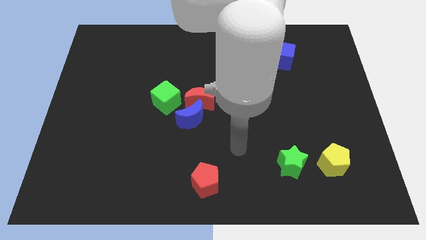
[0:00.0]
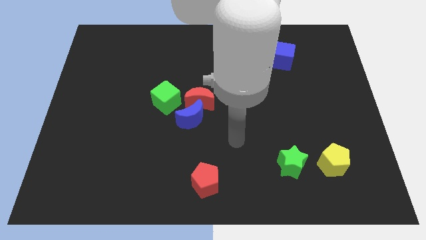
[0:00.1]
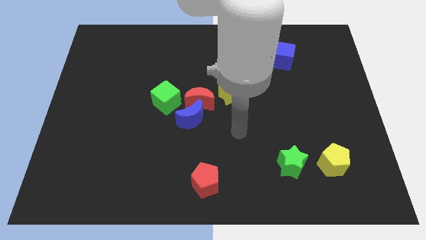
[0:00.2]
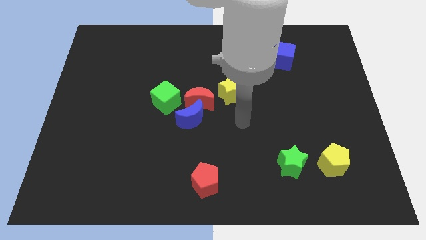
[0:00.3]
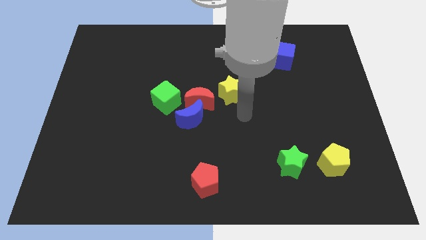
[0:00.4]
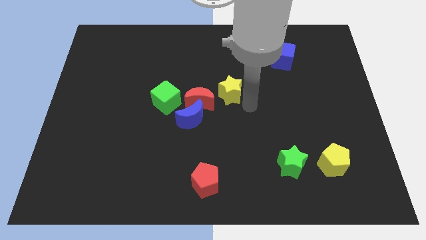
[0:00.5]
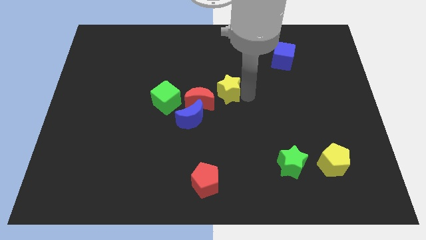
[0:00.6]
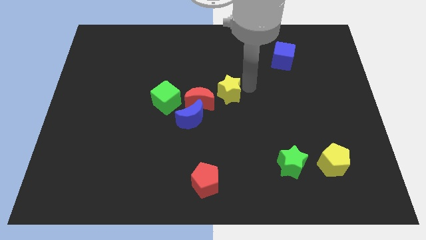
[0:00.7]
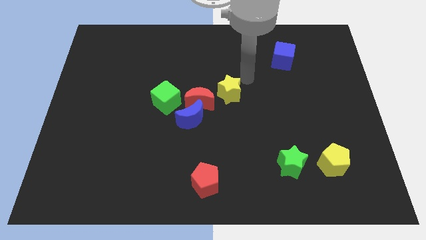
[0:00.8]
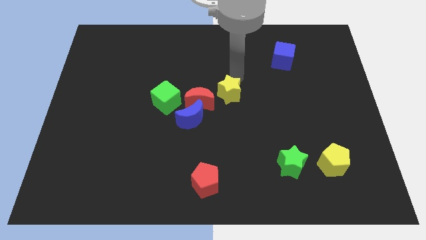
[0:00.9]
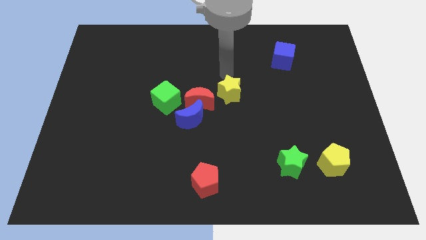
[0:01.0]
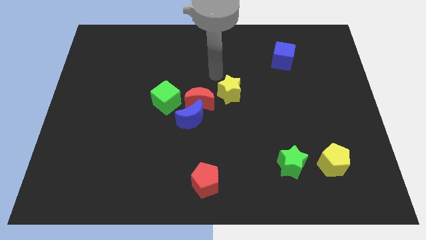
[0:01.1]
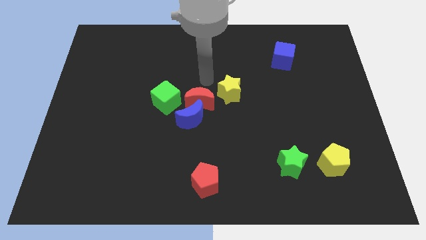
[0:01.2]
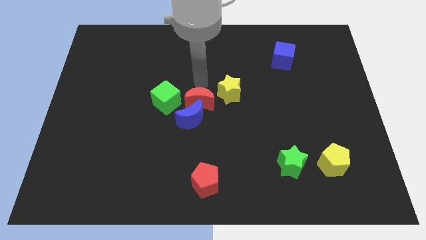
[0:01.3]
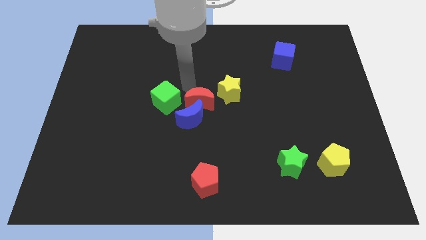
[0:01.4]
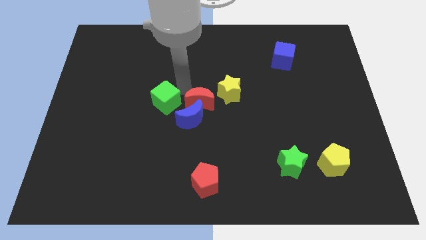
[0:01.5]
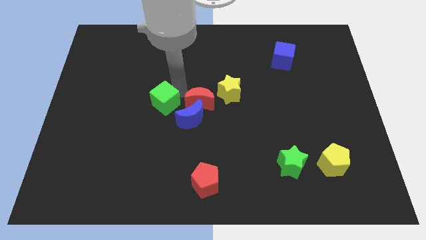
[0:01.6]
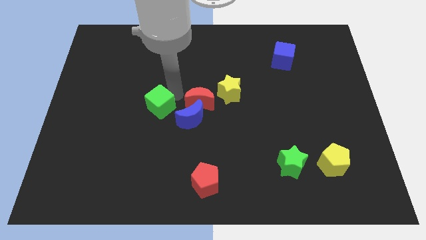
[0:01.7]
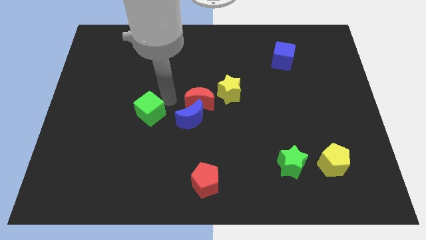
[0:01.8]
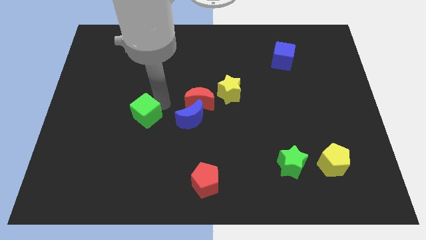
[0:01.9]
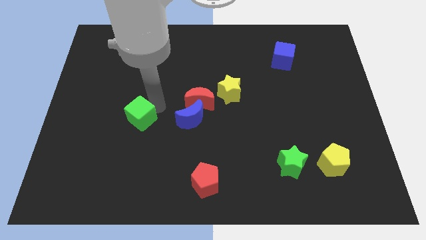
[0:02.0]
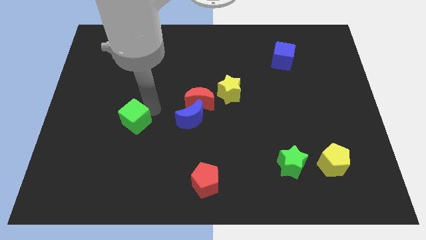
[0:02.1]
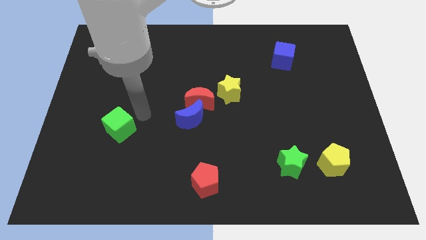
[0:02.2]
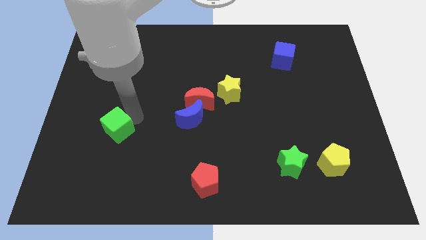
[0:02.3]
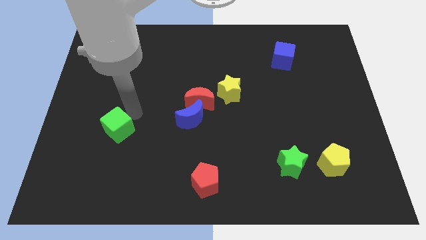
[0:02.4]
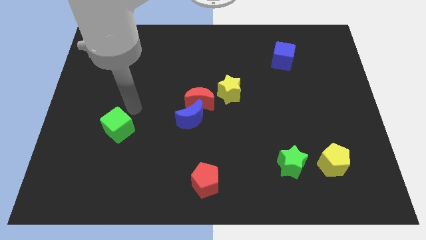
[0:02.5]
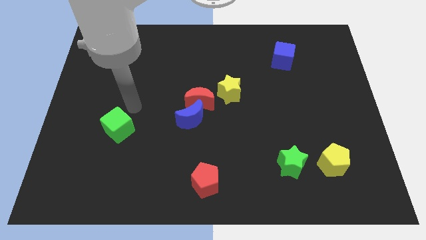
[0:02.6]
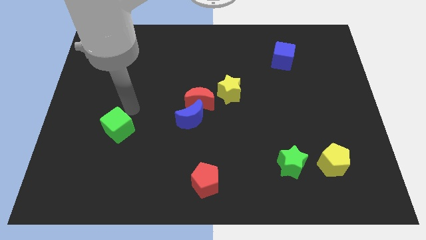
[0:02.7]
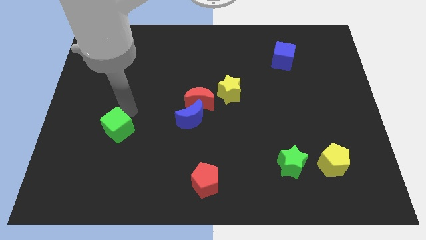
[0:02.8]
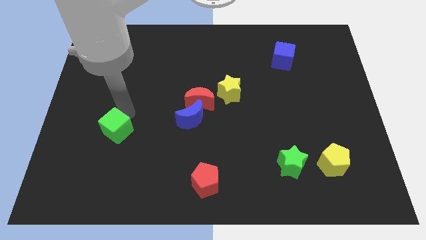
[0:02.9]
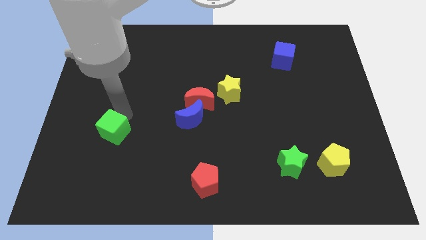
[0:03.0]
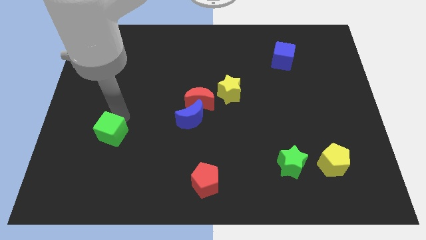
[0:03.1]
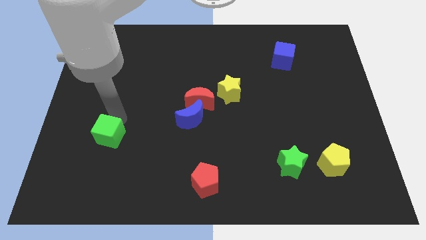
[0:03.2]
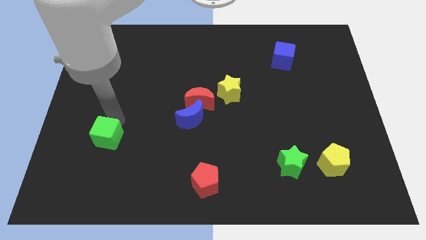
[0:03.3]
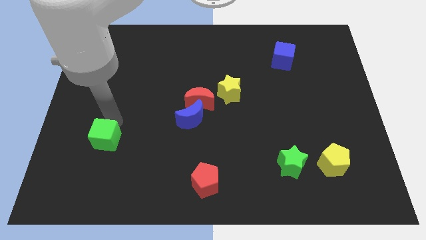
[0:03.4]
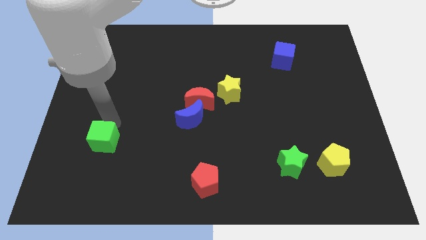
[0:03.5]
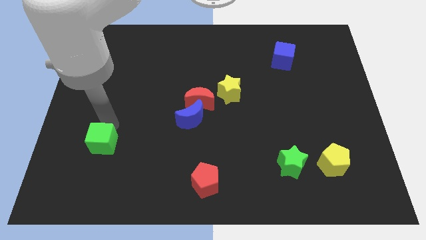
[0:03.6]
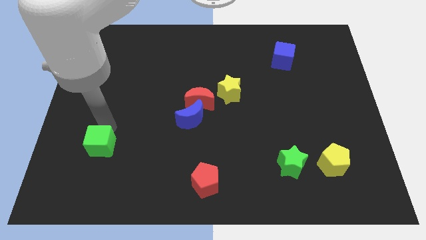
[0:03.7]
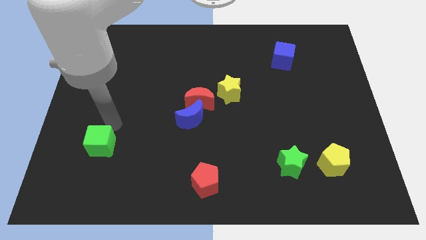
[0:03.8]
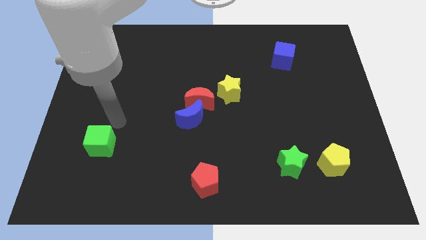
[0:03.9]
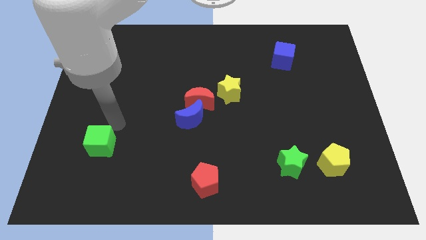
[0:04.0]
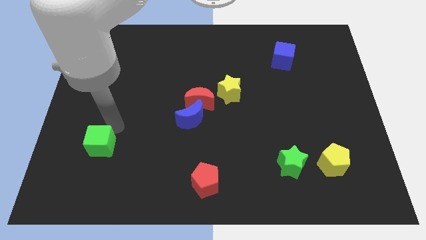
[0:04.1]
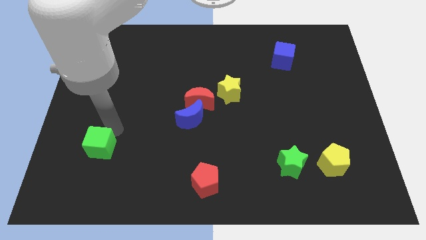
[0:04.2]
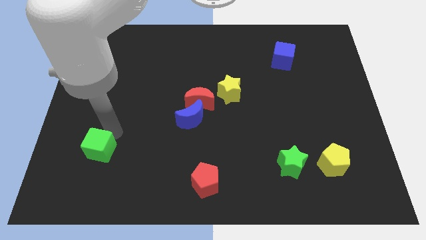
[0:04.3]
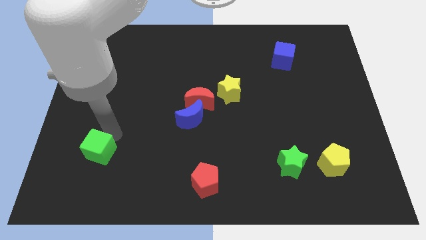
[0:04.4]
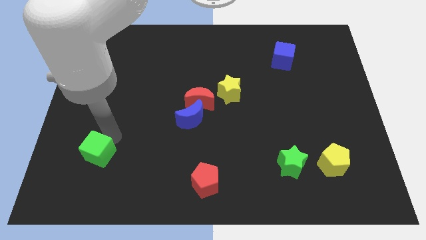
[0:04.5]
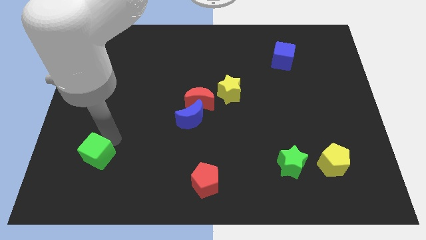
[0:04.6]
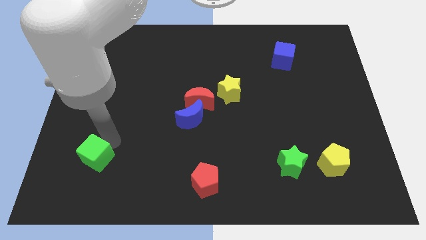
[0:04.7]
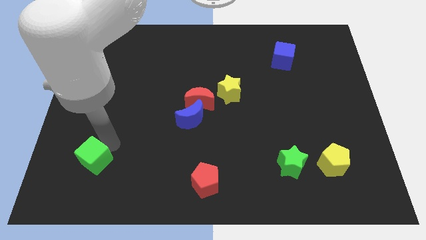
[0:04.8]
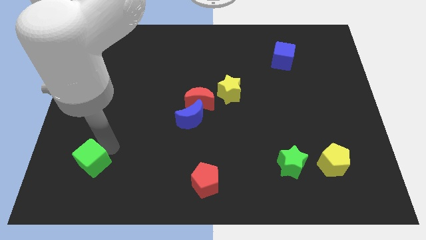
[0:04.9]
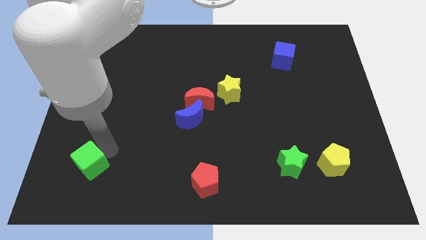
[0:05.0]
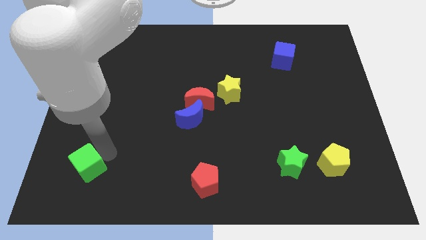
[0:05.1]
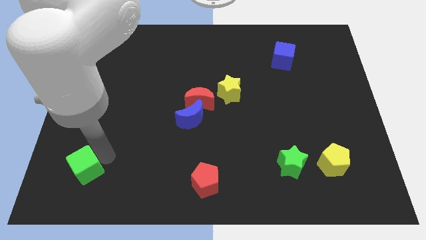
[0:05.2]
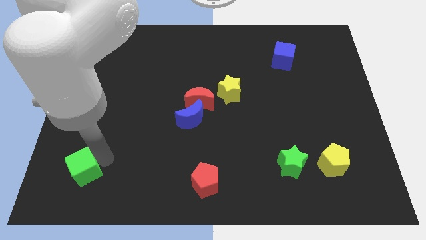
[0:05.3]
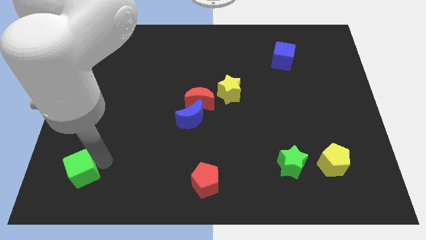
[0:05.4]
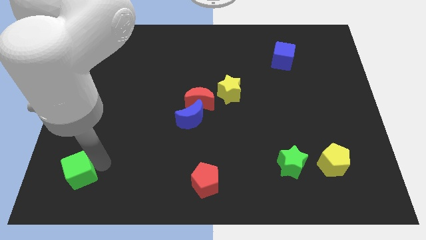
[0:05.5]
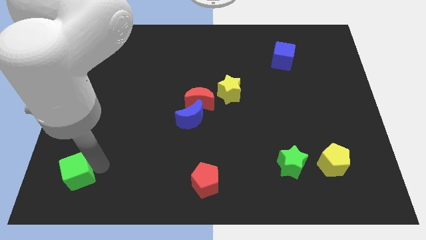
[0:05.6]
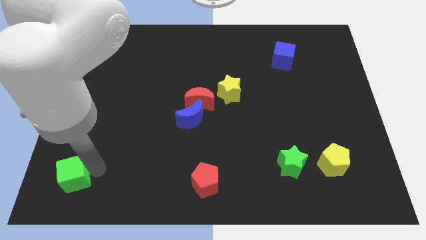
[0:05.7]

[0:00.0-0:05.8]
slide the green cube to the bottom left of the board
